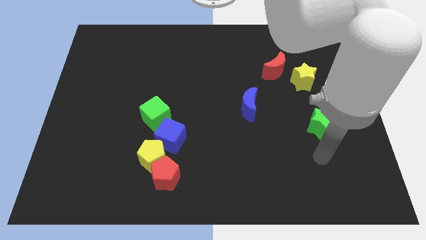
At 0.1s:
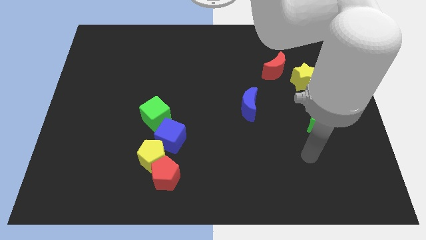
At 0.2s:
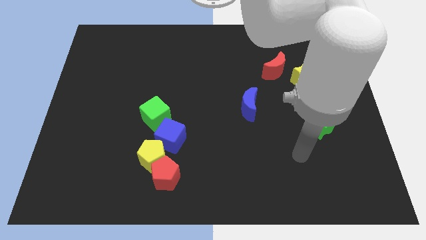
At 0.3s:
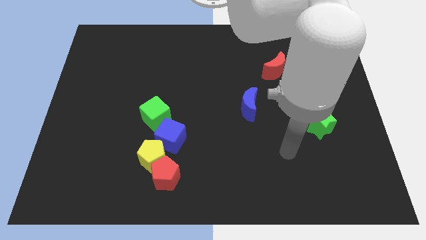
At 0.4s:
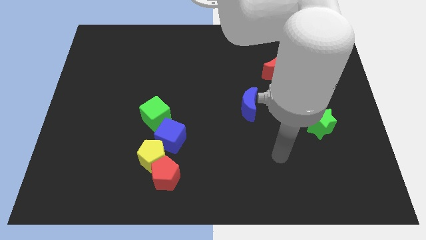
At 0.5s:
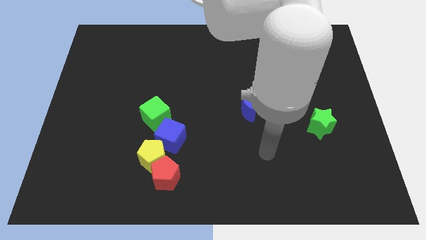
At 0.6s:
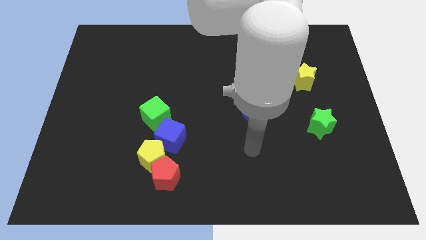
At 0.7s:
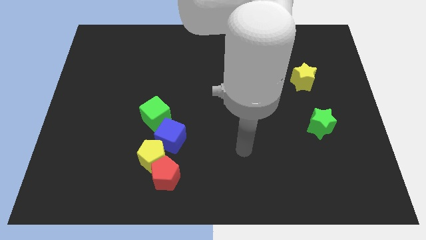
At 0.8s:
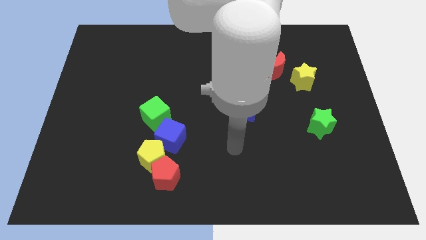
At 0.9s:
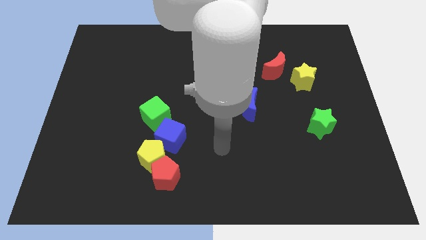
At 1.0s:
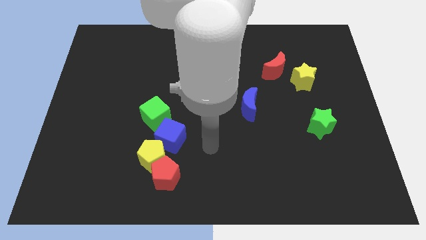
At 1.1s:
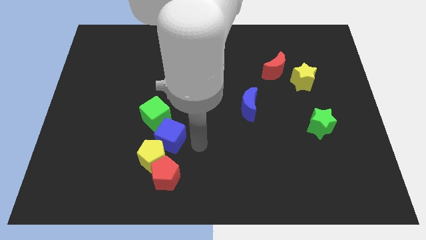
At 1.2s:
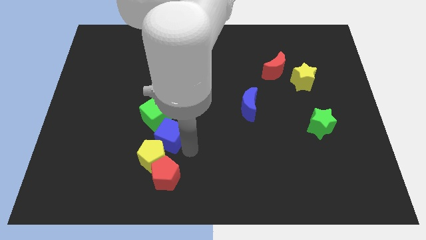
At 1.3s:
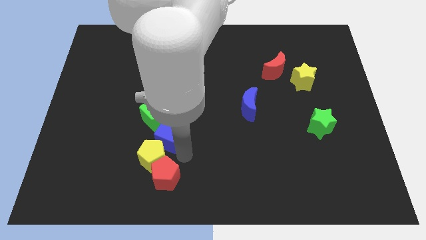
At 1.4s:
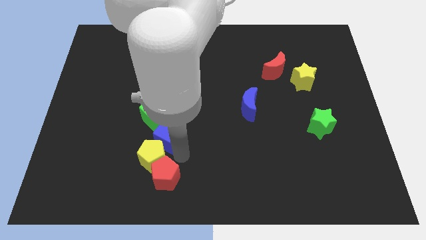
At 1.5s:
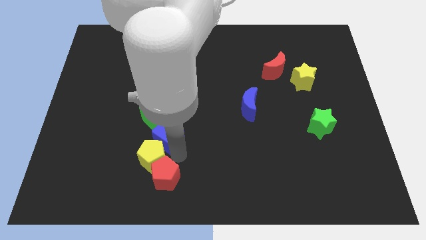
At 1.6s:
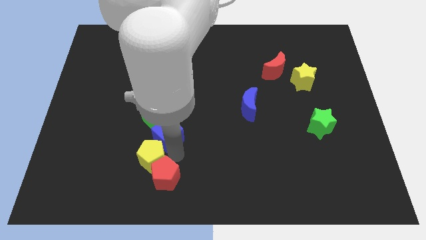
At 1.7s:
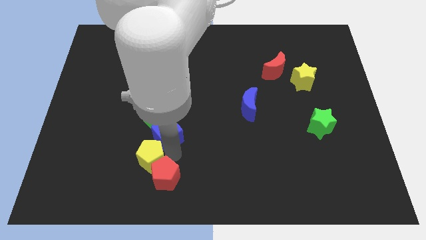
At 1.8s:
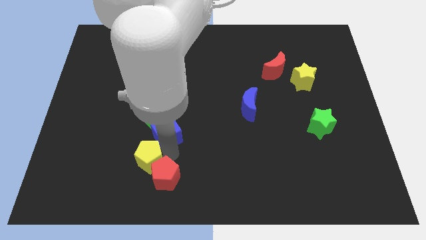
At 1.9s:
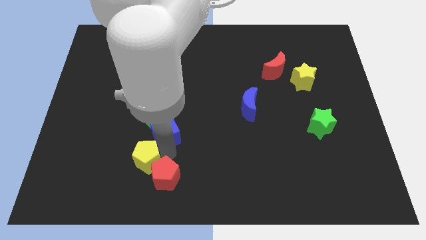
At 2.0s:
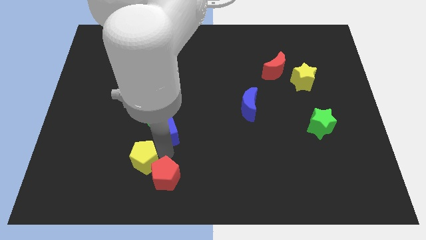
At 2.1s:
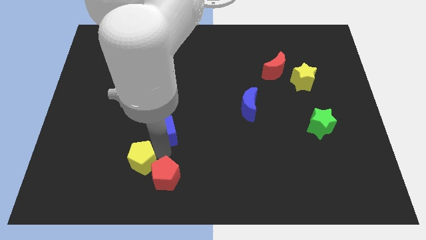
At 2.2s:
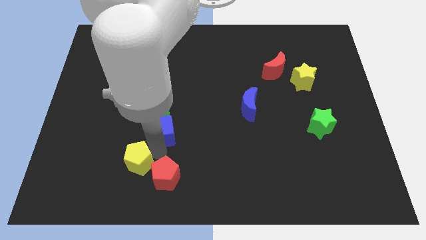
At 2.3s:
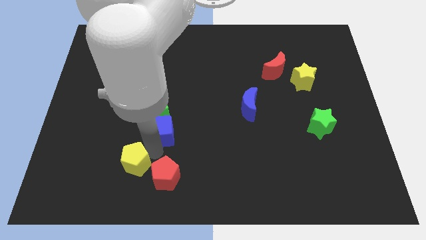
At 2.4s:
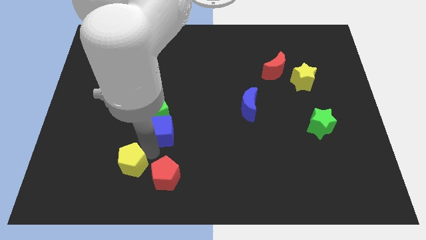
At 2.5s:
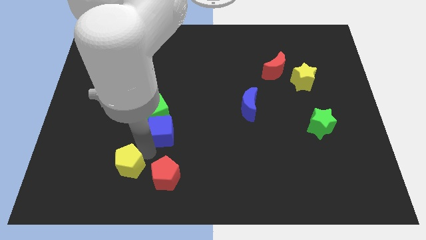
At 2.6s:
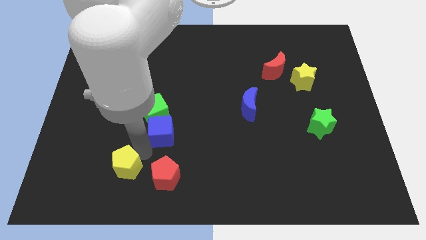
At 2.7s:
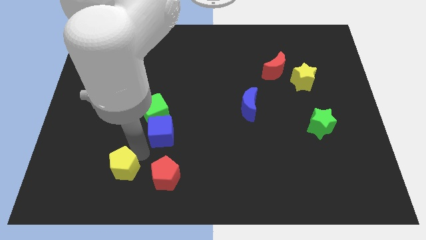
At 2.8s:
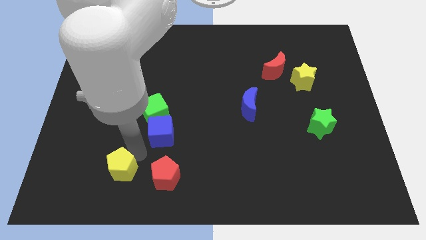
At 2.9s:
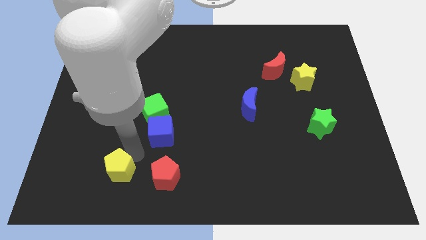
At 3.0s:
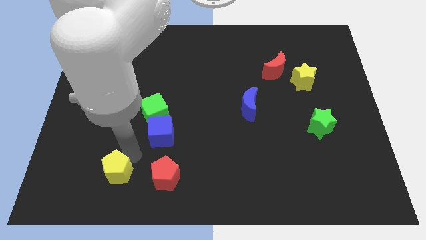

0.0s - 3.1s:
move the yellow pentagon away from the red pentagon and blue cube

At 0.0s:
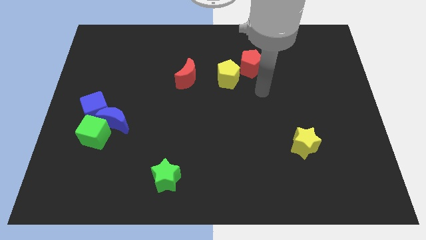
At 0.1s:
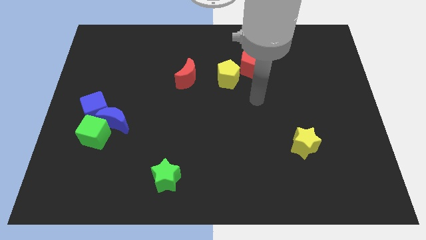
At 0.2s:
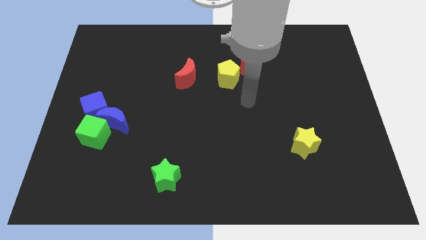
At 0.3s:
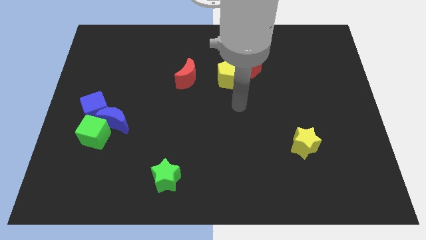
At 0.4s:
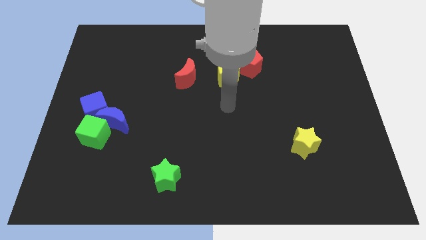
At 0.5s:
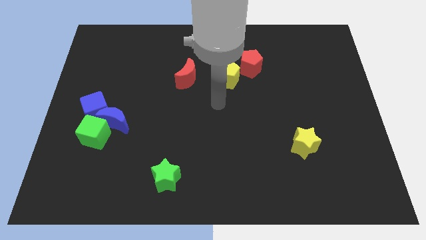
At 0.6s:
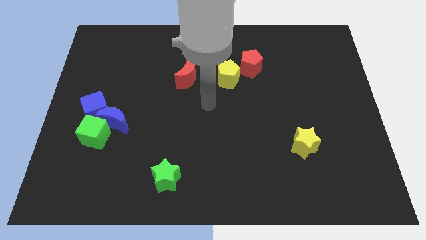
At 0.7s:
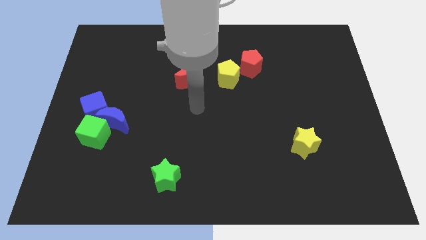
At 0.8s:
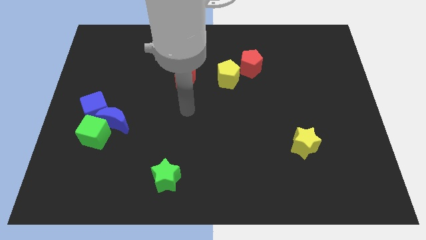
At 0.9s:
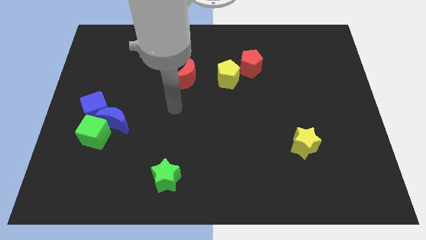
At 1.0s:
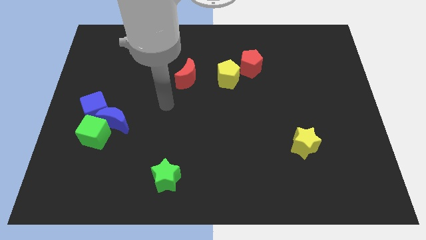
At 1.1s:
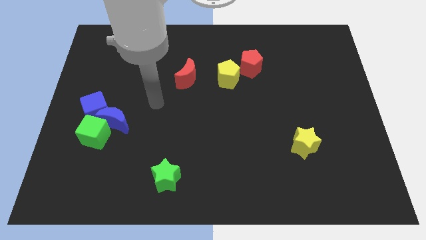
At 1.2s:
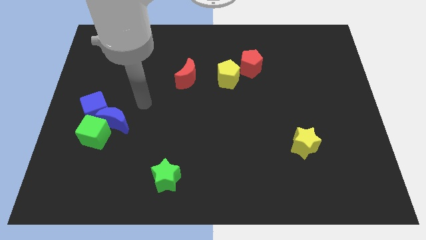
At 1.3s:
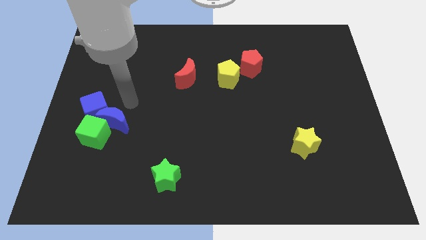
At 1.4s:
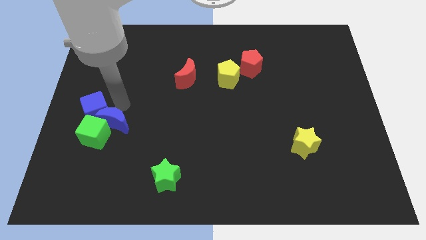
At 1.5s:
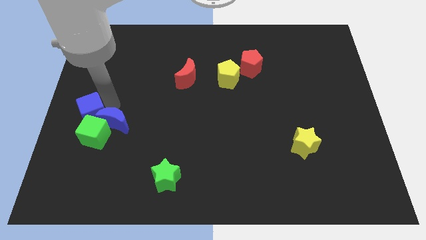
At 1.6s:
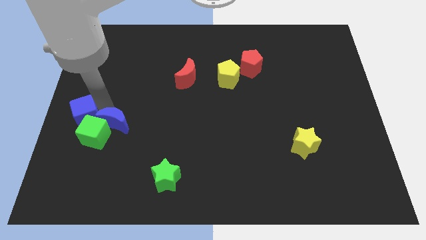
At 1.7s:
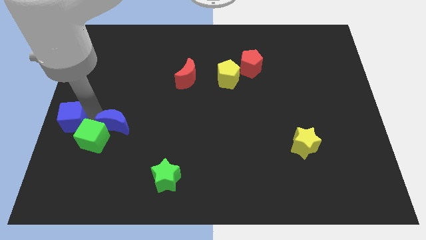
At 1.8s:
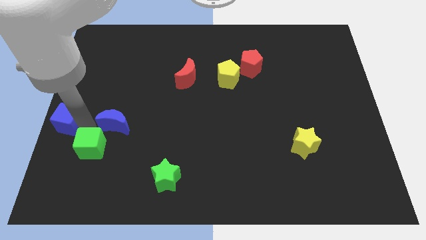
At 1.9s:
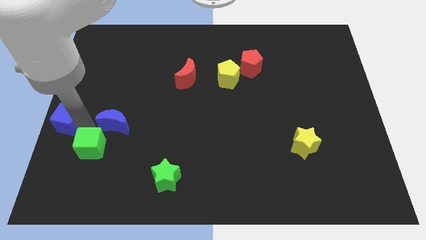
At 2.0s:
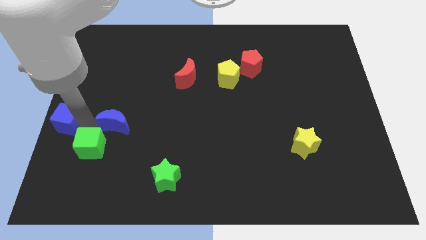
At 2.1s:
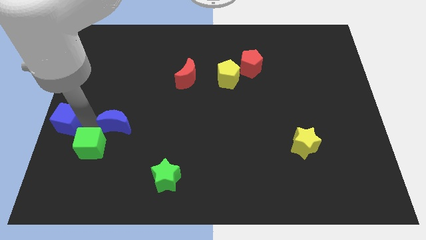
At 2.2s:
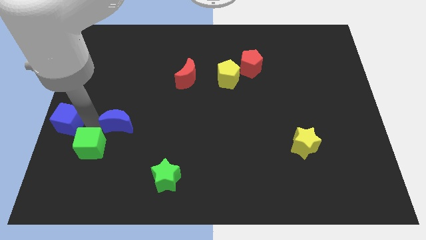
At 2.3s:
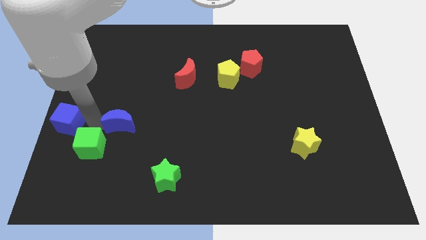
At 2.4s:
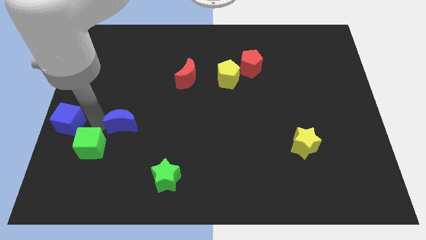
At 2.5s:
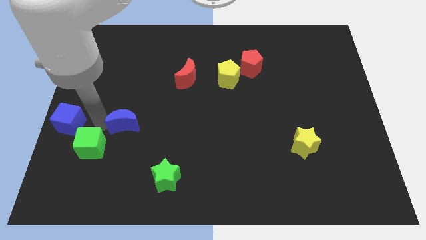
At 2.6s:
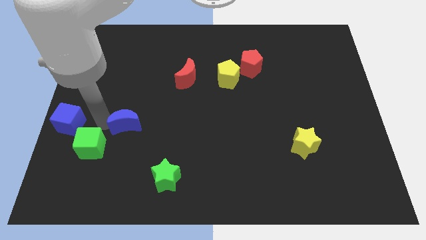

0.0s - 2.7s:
separate the blue moon from the green cube and blue cube

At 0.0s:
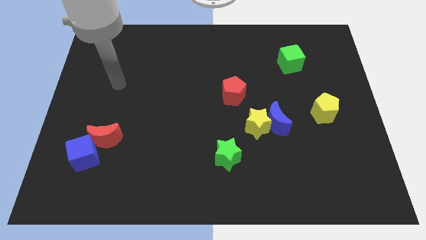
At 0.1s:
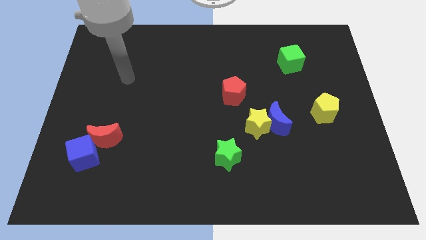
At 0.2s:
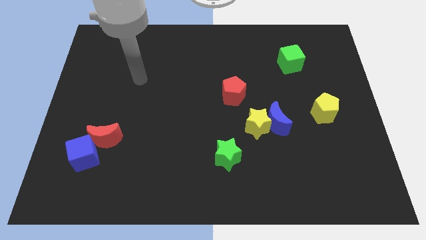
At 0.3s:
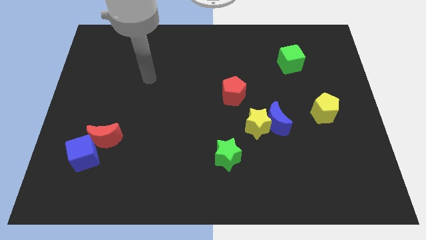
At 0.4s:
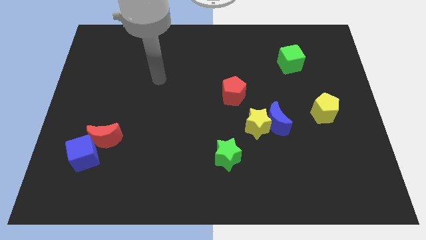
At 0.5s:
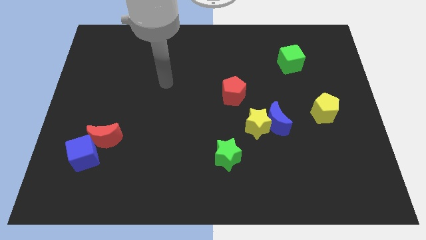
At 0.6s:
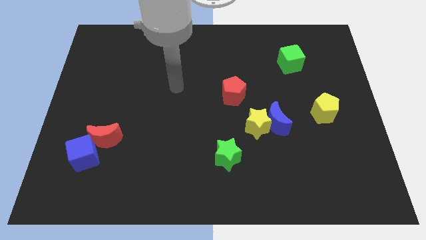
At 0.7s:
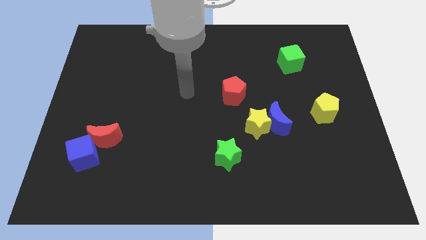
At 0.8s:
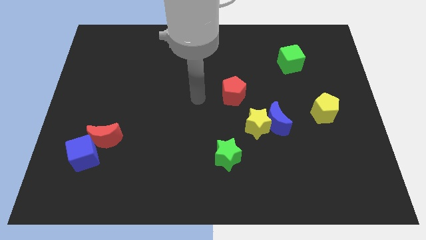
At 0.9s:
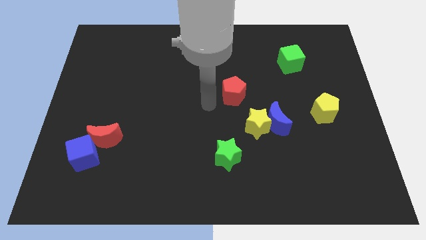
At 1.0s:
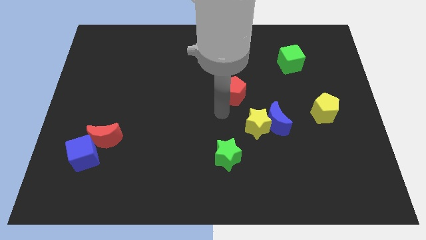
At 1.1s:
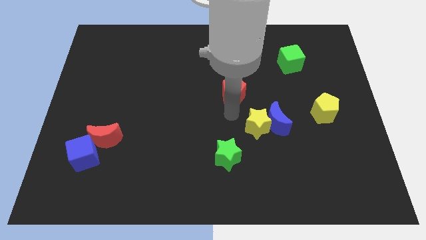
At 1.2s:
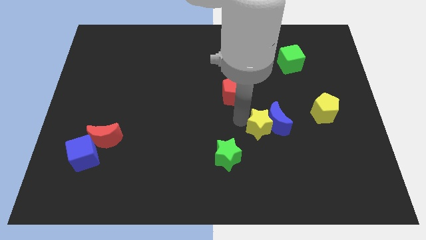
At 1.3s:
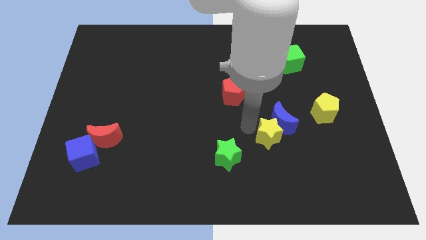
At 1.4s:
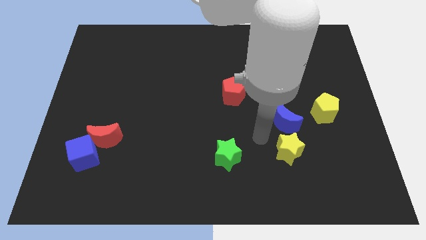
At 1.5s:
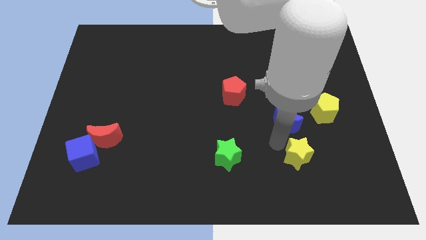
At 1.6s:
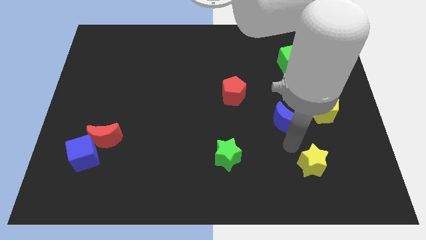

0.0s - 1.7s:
pull the blue moon apart from the yellow star

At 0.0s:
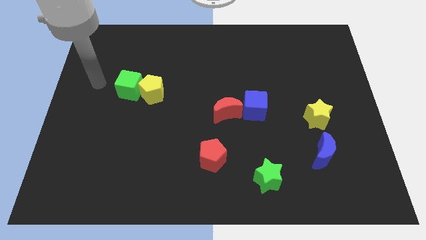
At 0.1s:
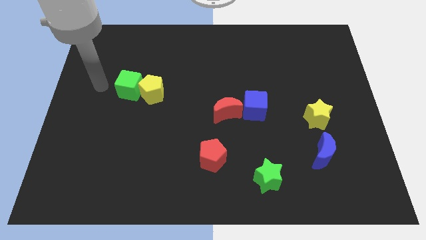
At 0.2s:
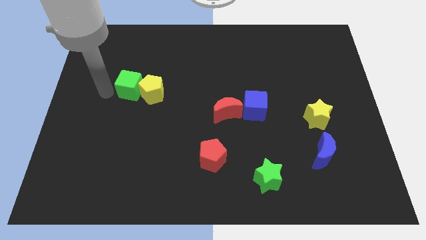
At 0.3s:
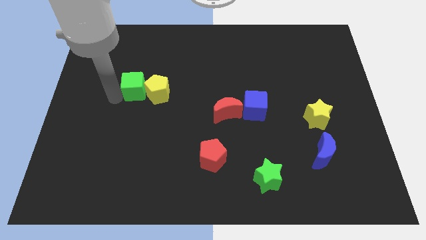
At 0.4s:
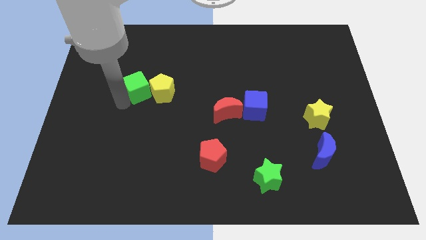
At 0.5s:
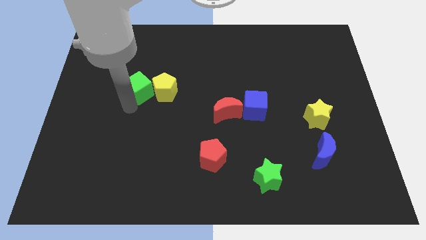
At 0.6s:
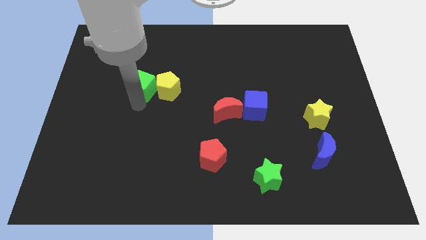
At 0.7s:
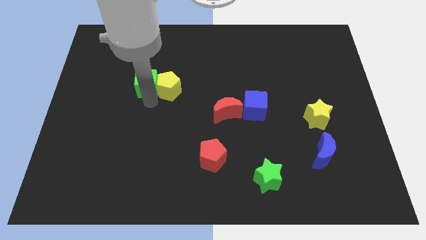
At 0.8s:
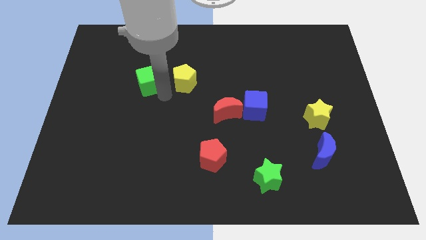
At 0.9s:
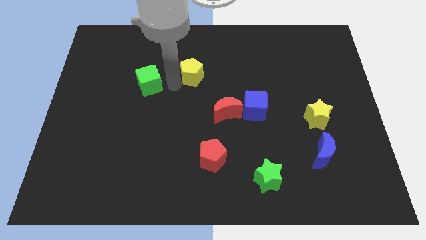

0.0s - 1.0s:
move the green cube away from the yellow pentagon

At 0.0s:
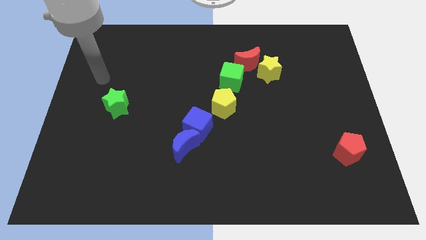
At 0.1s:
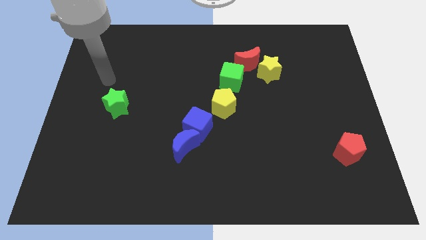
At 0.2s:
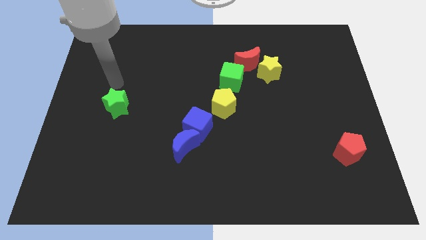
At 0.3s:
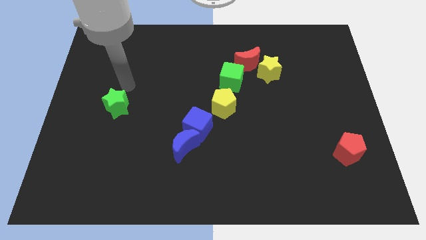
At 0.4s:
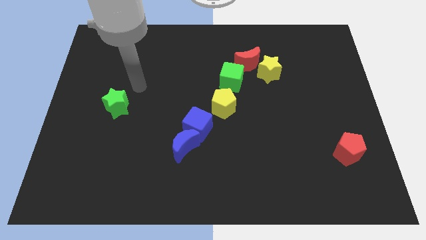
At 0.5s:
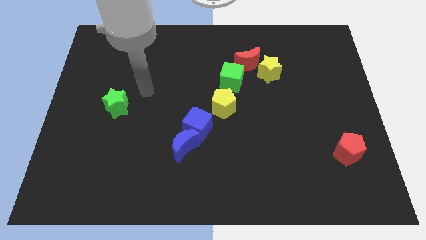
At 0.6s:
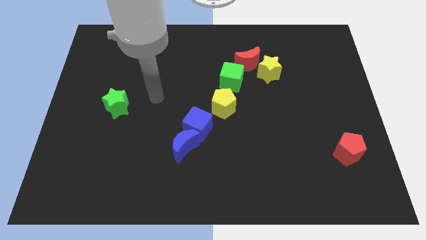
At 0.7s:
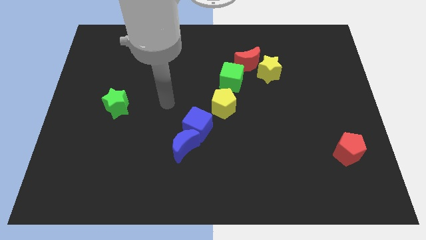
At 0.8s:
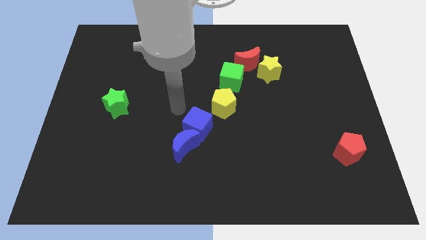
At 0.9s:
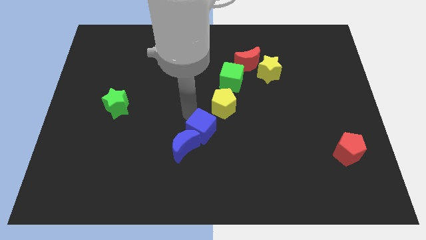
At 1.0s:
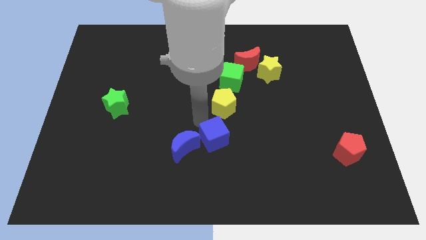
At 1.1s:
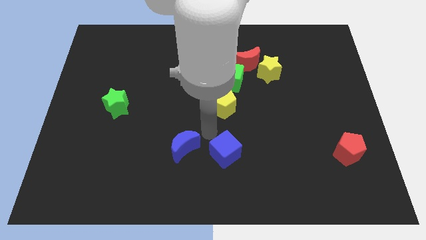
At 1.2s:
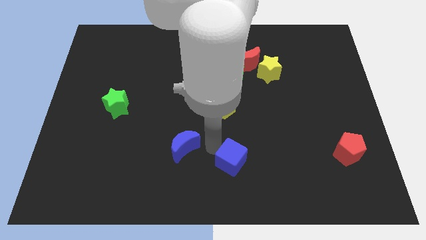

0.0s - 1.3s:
separate the blue moon from the blue cube
